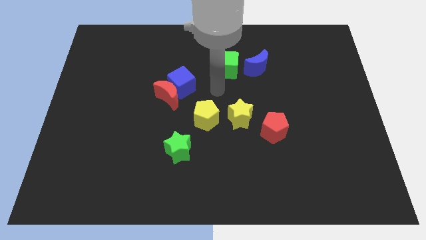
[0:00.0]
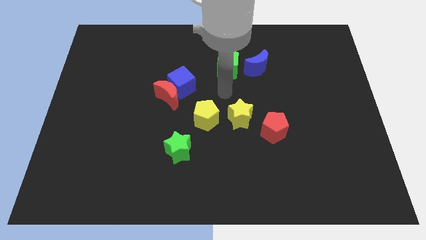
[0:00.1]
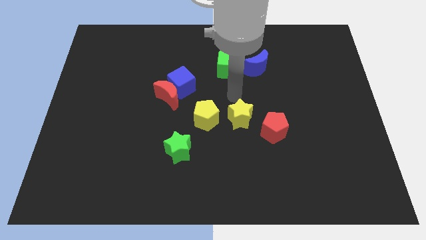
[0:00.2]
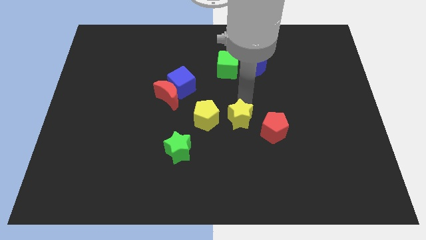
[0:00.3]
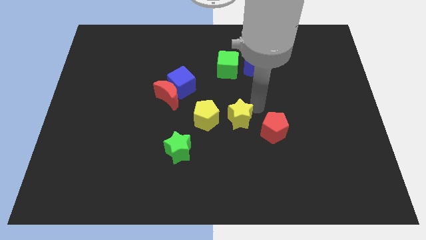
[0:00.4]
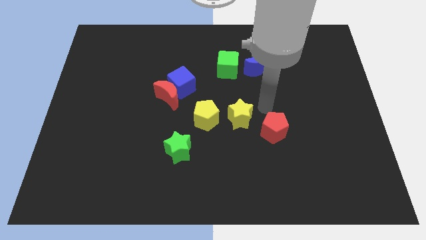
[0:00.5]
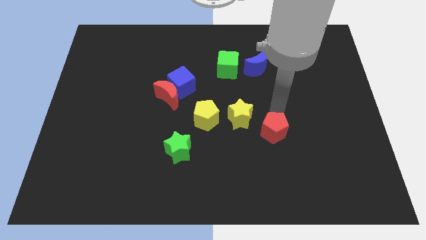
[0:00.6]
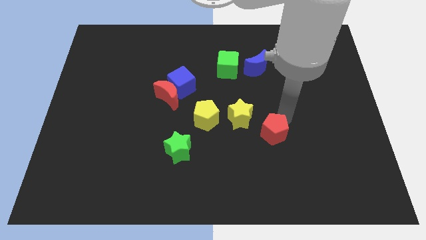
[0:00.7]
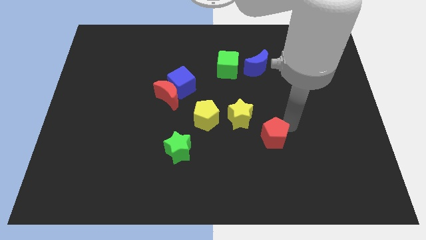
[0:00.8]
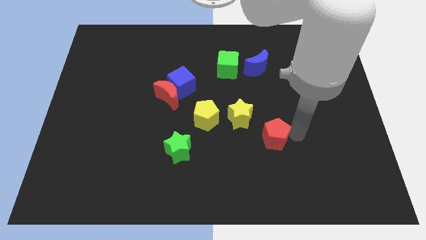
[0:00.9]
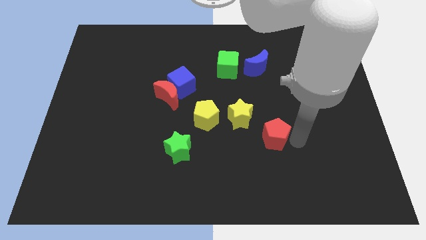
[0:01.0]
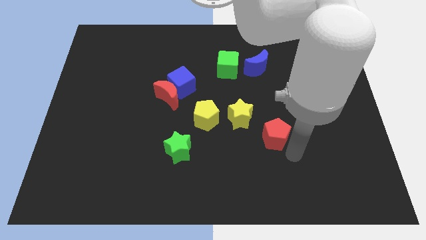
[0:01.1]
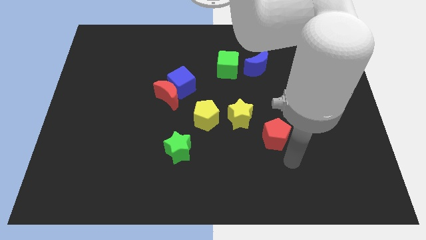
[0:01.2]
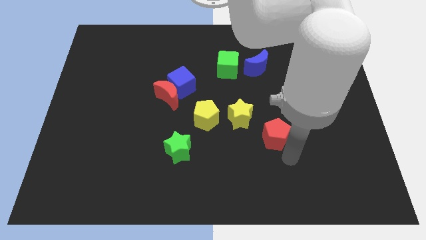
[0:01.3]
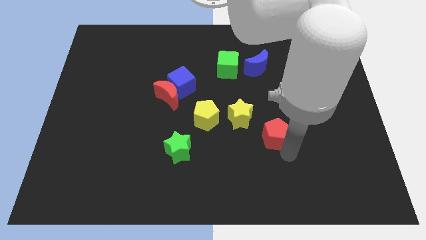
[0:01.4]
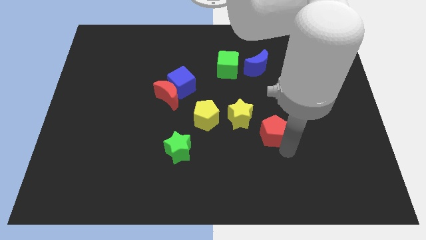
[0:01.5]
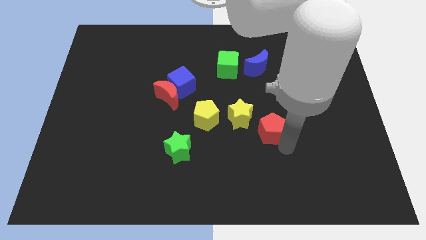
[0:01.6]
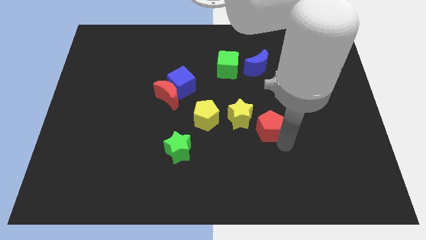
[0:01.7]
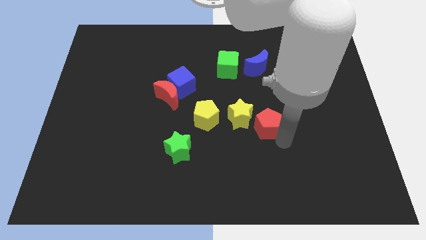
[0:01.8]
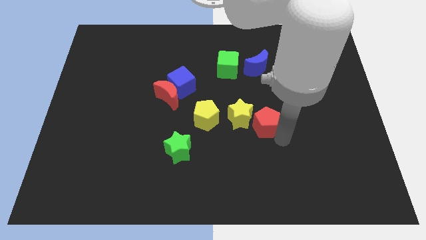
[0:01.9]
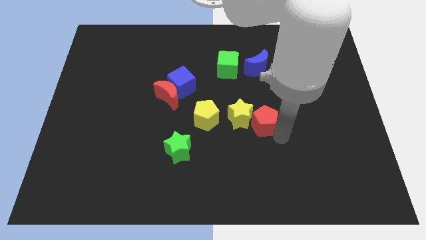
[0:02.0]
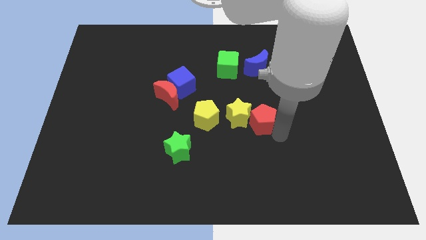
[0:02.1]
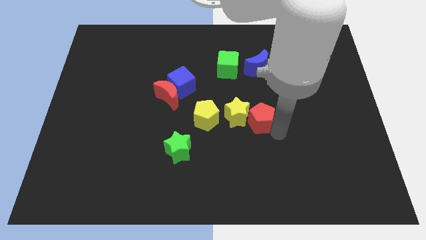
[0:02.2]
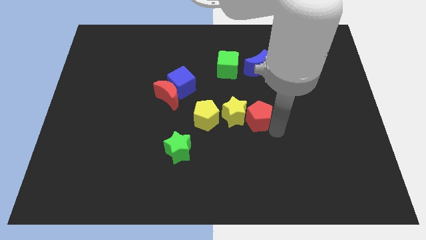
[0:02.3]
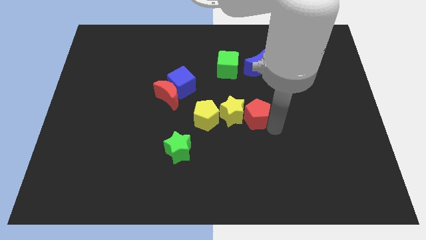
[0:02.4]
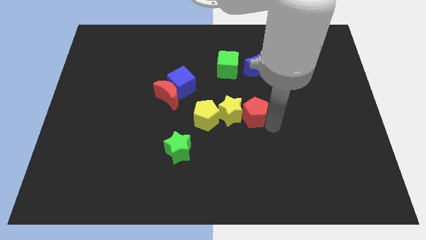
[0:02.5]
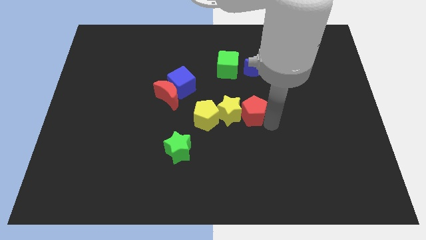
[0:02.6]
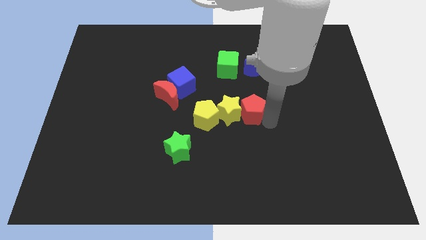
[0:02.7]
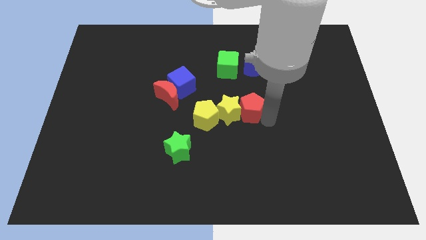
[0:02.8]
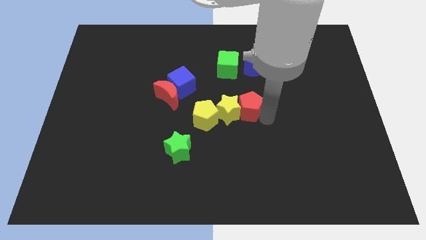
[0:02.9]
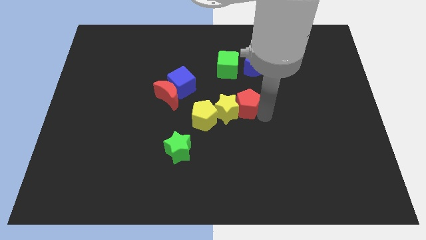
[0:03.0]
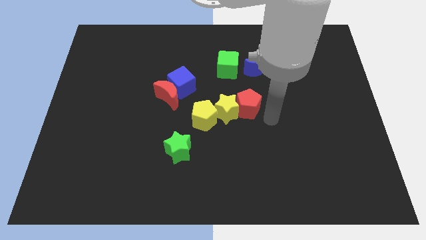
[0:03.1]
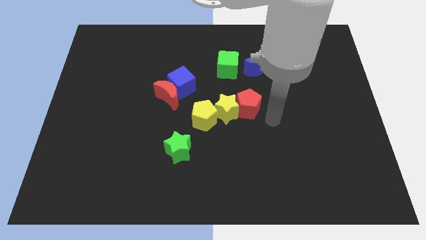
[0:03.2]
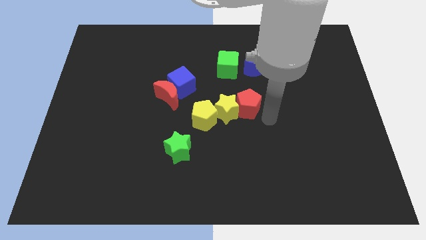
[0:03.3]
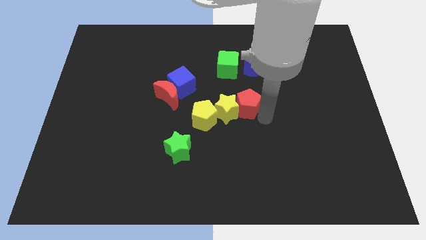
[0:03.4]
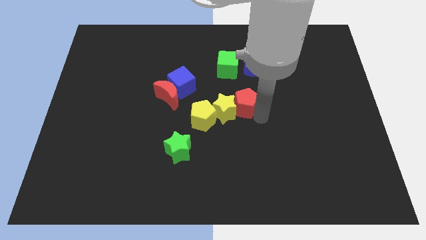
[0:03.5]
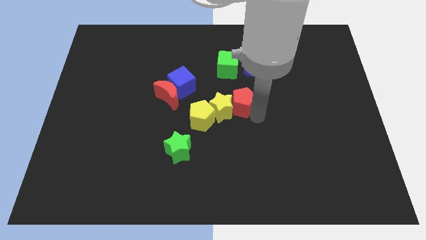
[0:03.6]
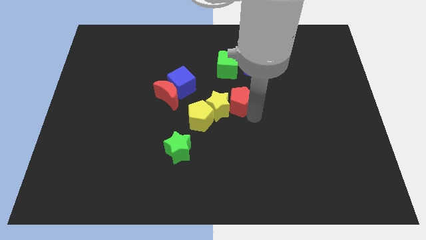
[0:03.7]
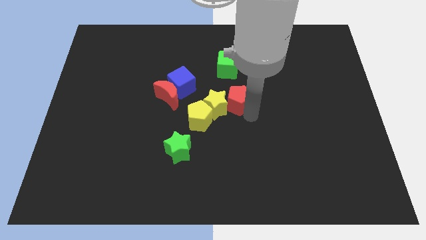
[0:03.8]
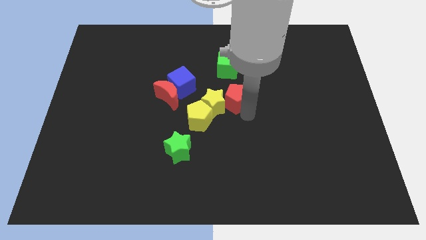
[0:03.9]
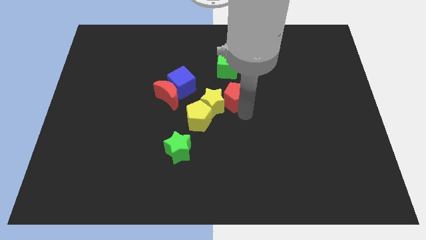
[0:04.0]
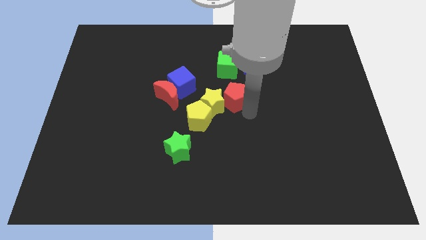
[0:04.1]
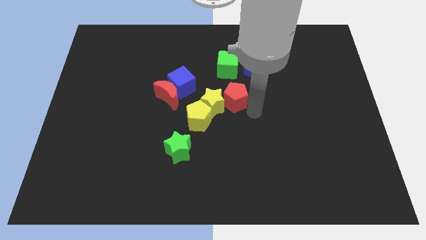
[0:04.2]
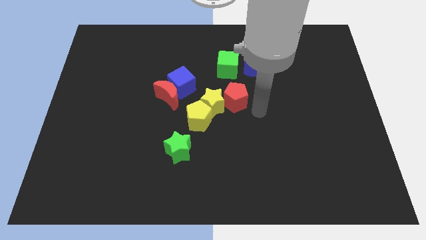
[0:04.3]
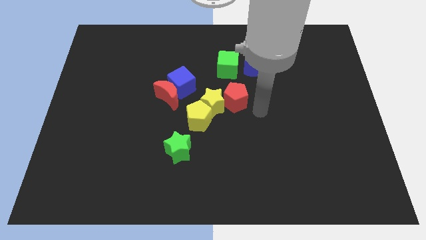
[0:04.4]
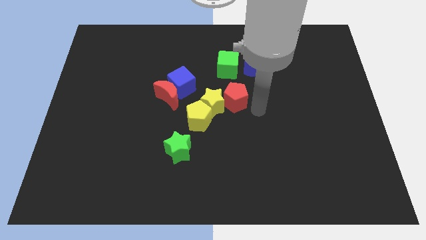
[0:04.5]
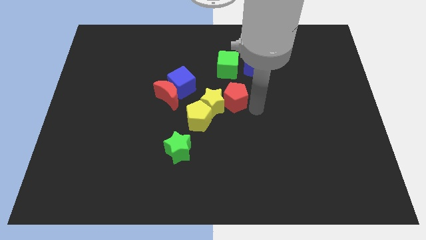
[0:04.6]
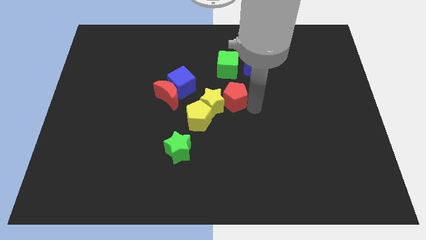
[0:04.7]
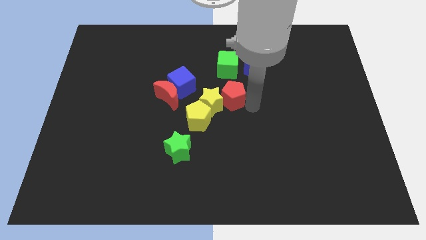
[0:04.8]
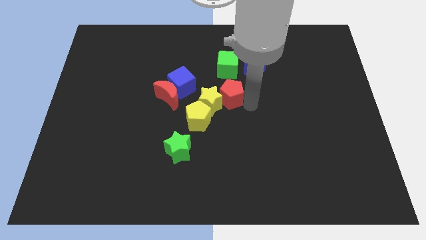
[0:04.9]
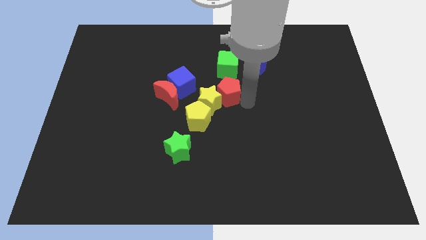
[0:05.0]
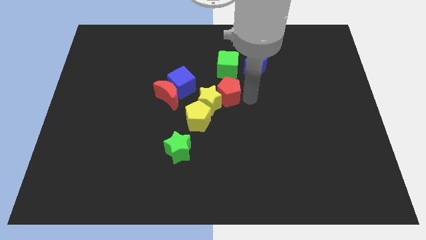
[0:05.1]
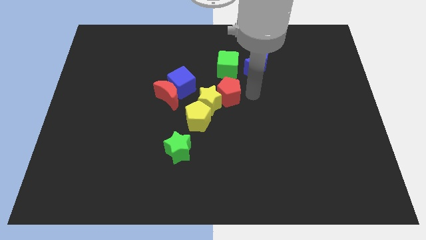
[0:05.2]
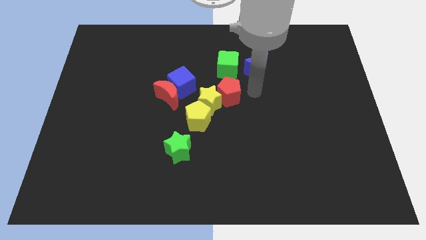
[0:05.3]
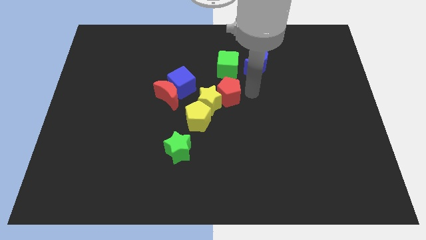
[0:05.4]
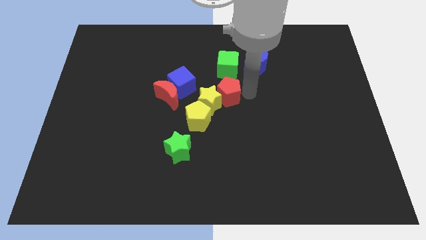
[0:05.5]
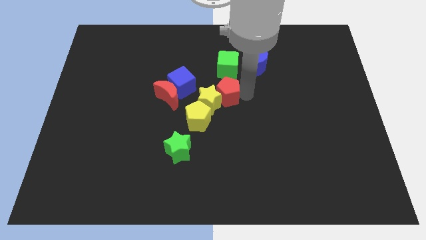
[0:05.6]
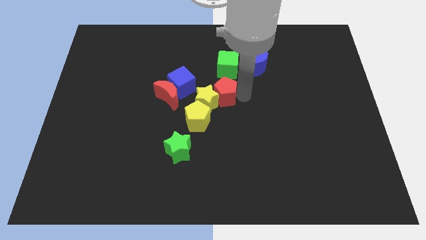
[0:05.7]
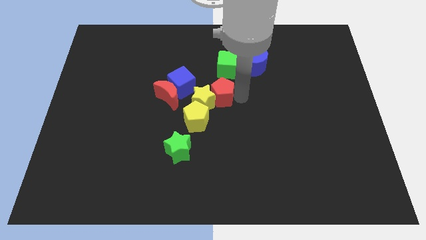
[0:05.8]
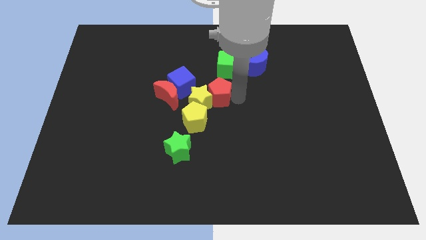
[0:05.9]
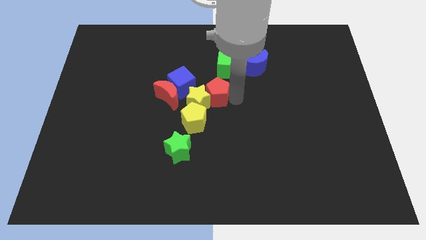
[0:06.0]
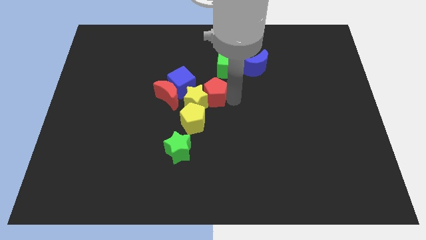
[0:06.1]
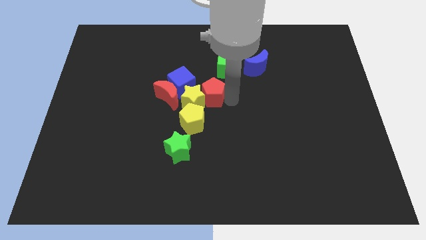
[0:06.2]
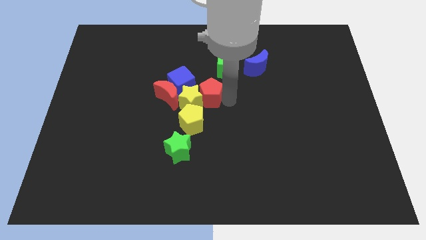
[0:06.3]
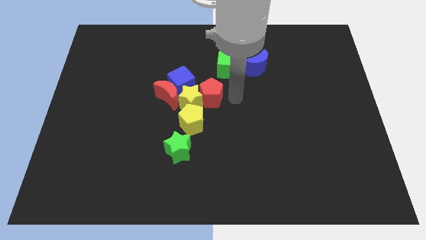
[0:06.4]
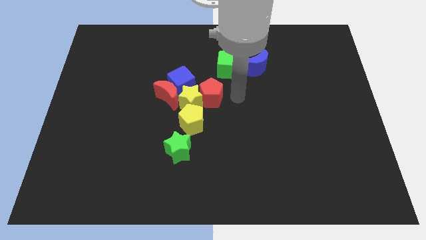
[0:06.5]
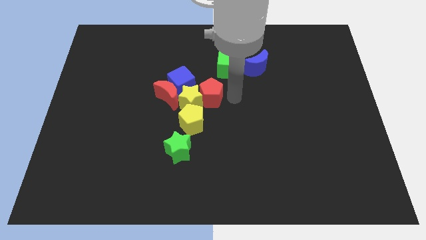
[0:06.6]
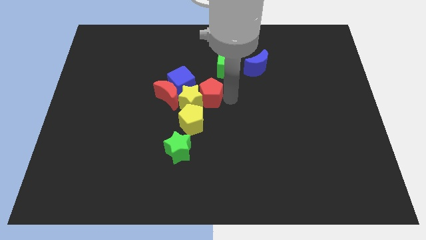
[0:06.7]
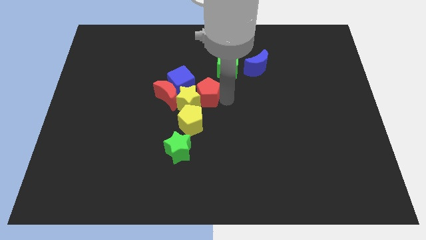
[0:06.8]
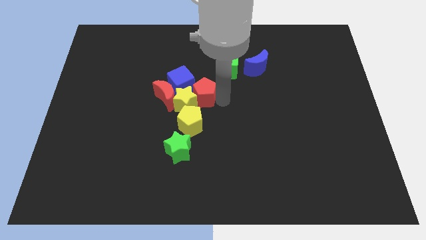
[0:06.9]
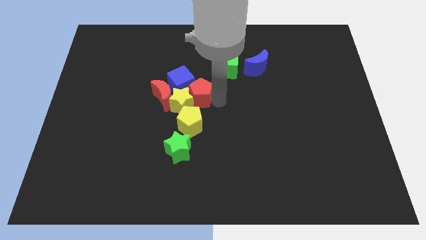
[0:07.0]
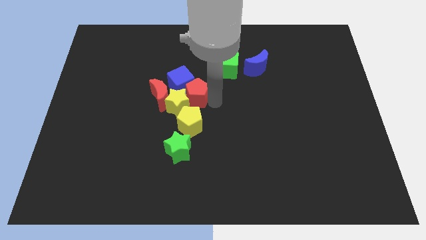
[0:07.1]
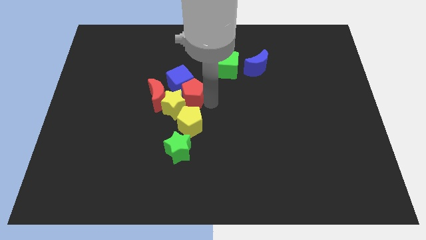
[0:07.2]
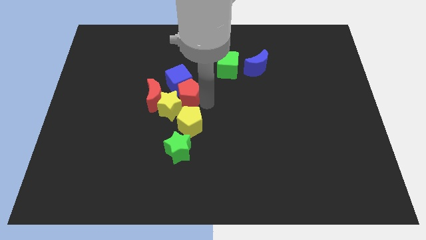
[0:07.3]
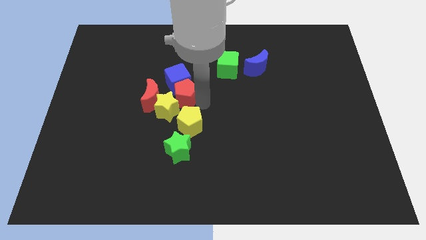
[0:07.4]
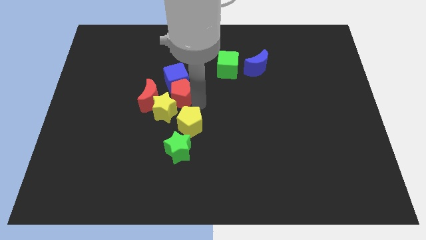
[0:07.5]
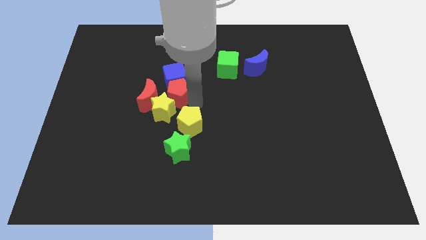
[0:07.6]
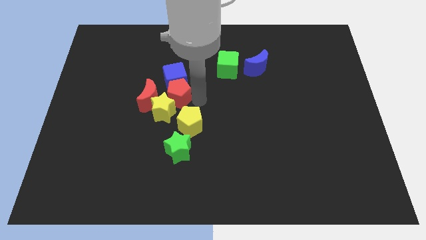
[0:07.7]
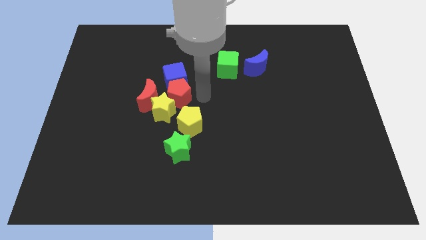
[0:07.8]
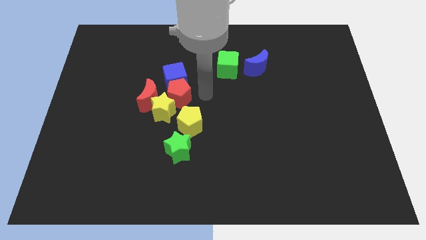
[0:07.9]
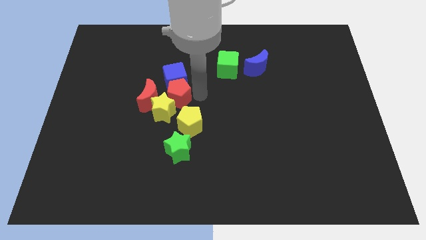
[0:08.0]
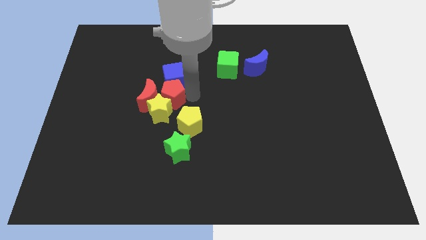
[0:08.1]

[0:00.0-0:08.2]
slide the red pentagon to the red moon
